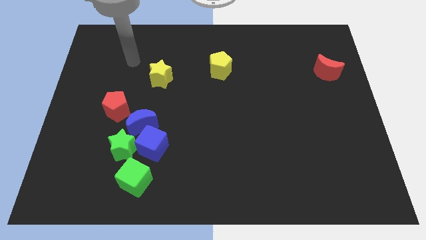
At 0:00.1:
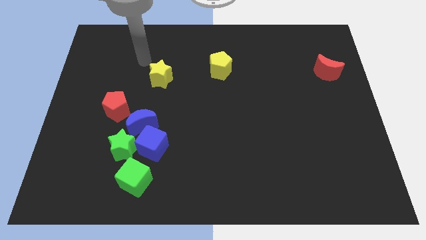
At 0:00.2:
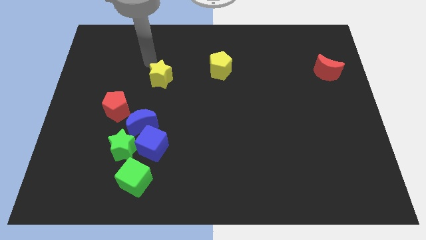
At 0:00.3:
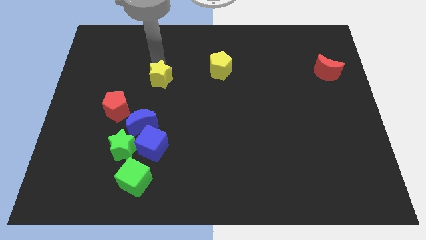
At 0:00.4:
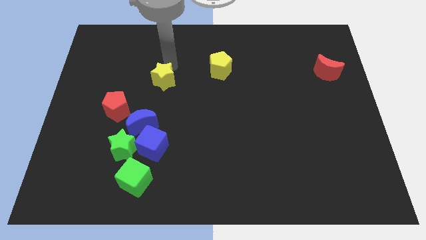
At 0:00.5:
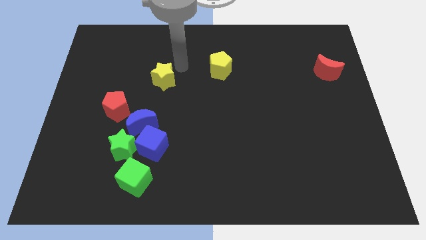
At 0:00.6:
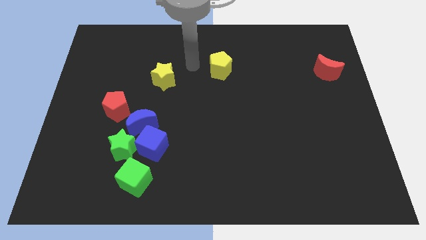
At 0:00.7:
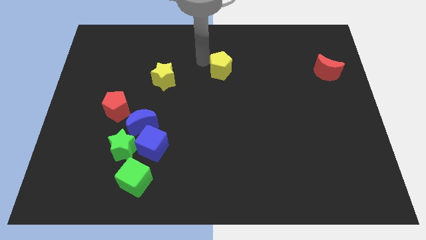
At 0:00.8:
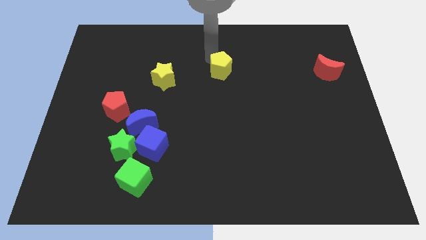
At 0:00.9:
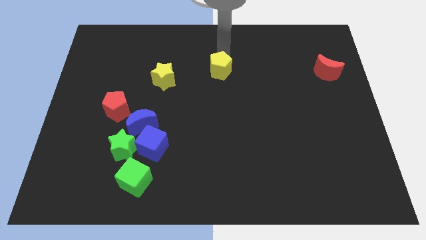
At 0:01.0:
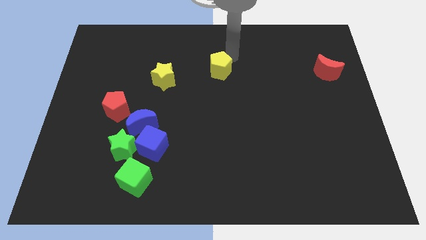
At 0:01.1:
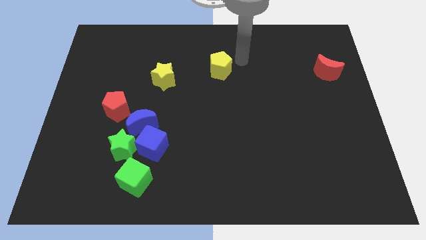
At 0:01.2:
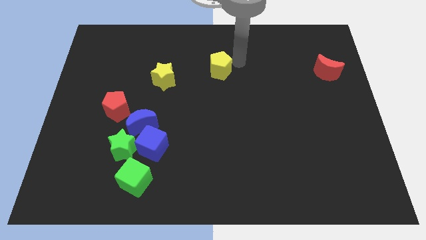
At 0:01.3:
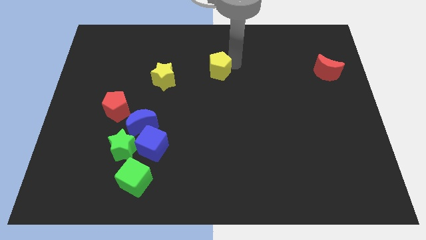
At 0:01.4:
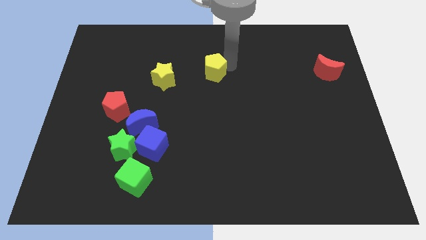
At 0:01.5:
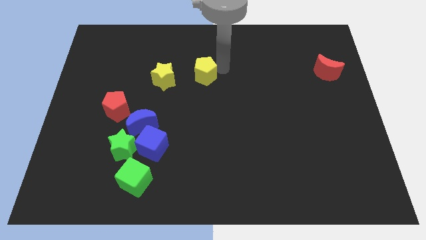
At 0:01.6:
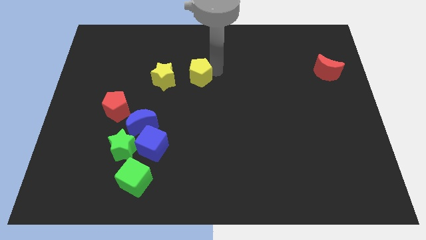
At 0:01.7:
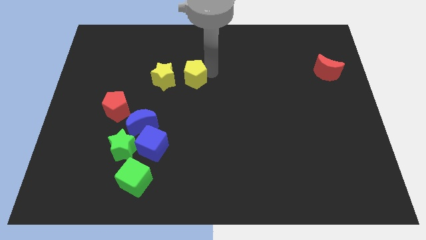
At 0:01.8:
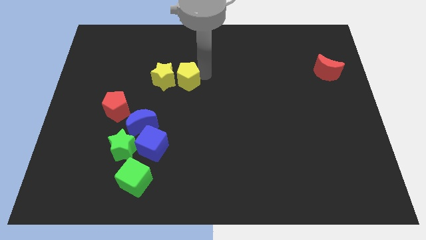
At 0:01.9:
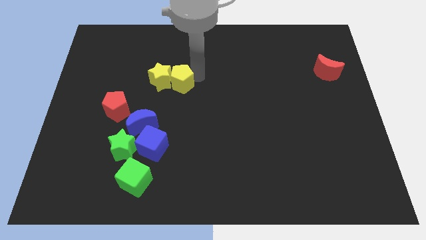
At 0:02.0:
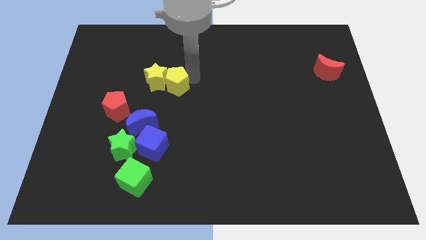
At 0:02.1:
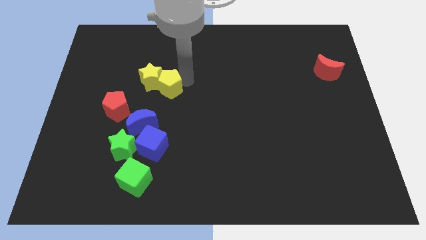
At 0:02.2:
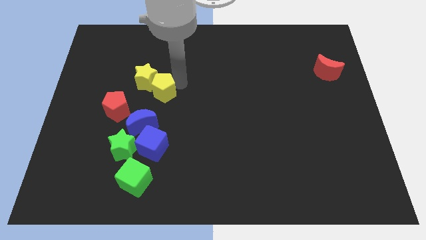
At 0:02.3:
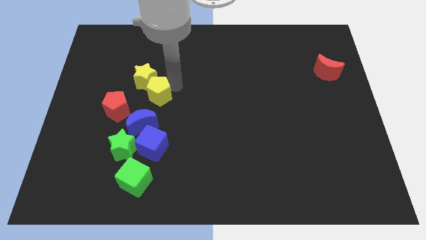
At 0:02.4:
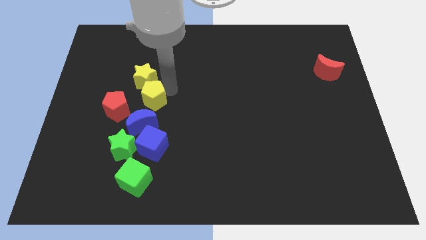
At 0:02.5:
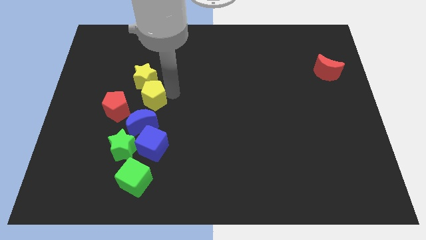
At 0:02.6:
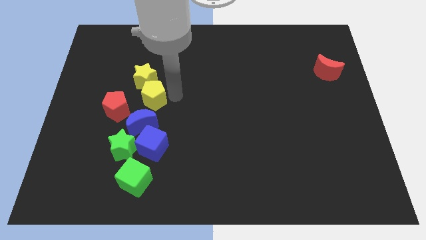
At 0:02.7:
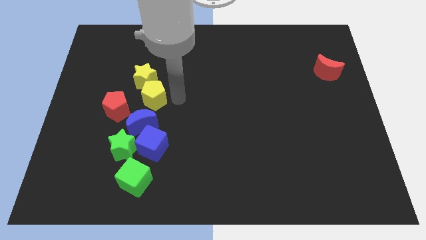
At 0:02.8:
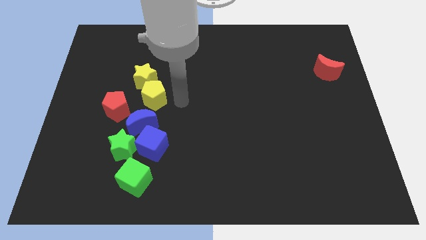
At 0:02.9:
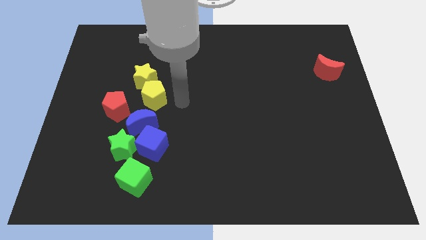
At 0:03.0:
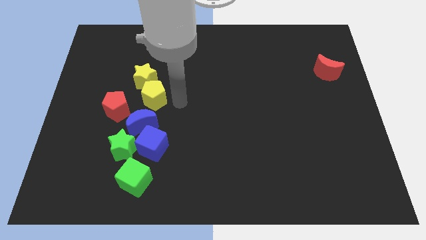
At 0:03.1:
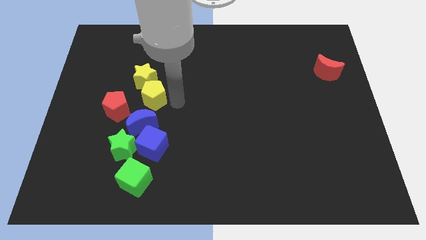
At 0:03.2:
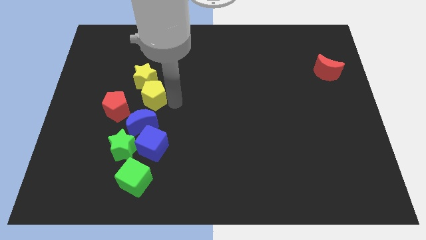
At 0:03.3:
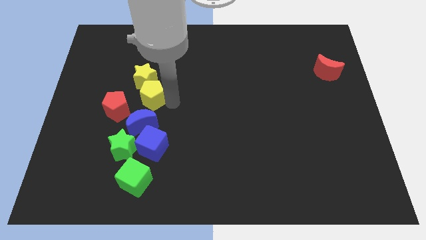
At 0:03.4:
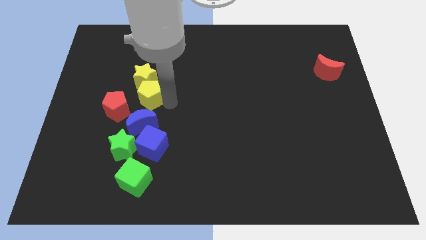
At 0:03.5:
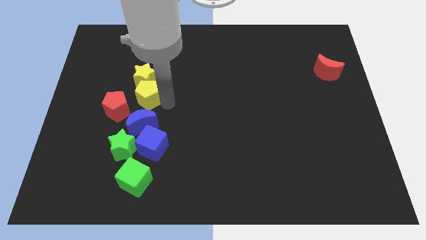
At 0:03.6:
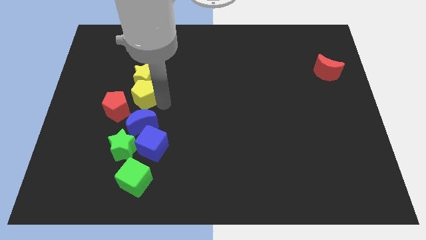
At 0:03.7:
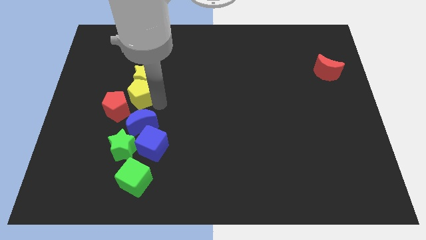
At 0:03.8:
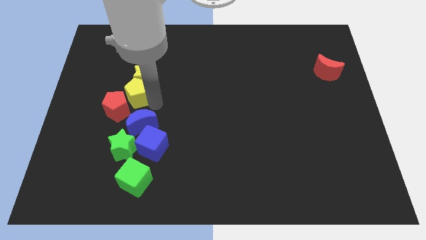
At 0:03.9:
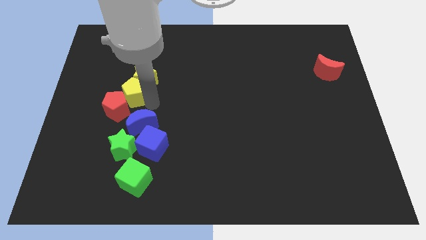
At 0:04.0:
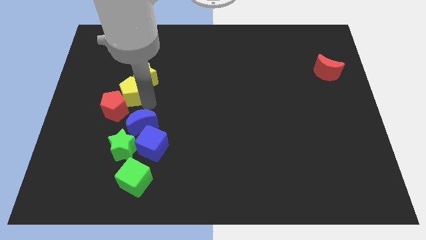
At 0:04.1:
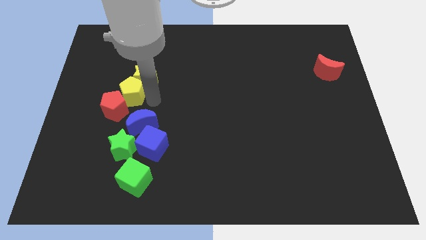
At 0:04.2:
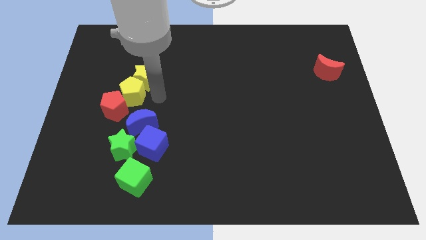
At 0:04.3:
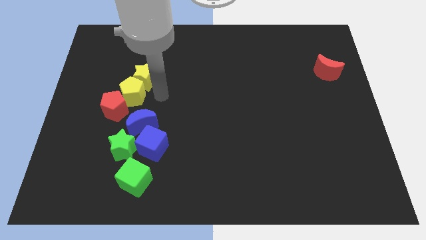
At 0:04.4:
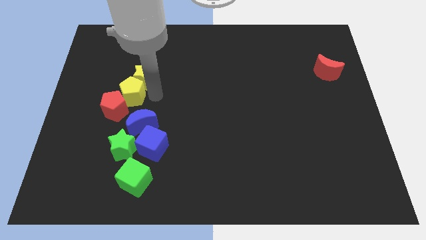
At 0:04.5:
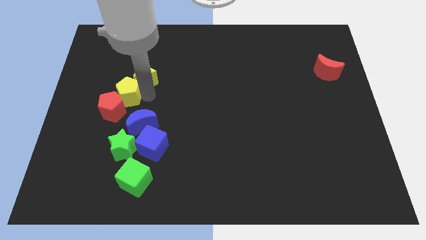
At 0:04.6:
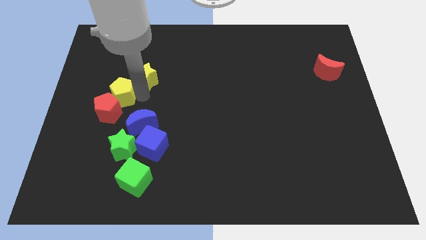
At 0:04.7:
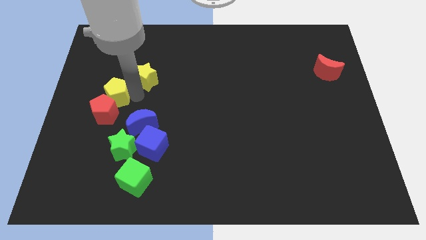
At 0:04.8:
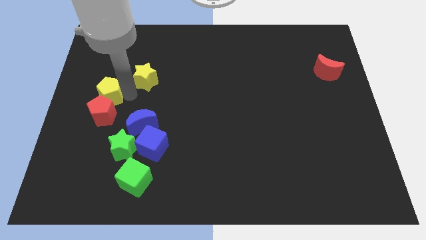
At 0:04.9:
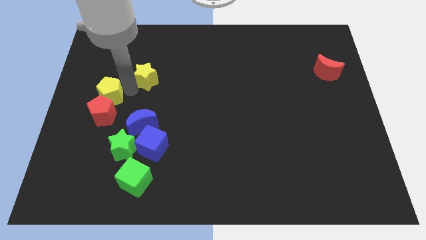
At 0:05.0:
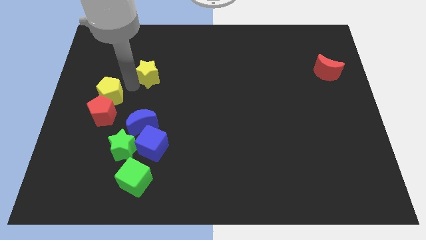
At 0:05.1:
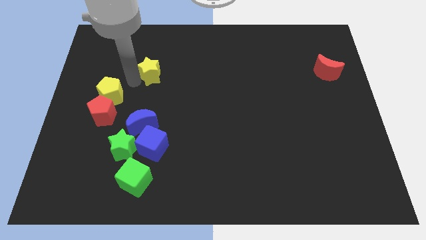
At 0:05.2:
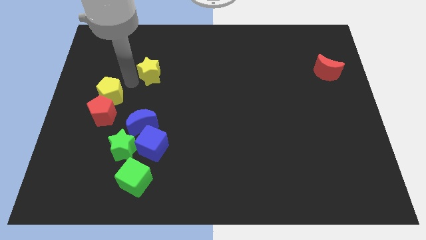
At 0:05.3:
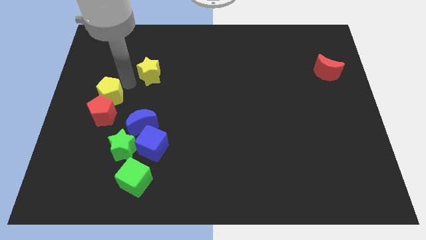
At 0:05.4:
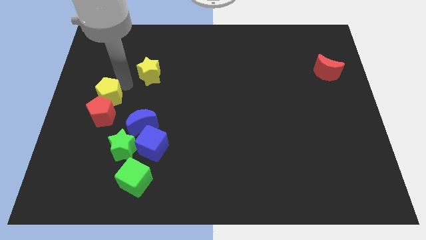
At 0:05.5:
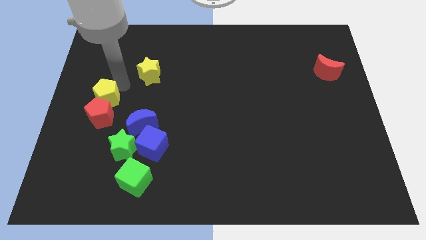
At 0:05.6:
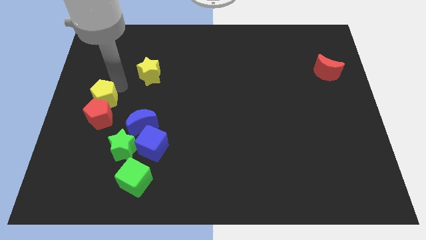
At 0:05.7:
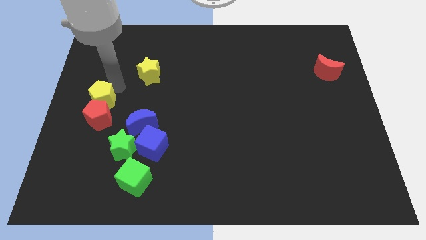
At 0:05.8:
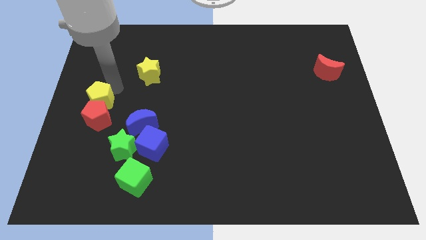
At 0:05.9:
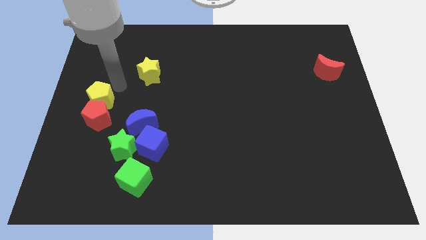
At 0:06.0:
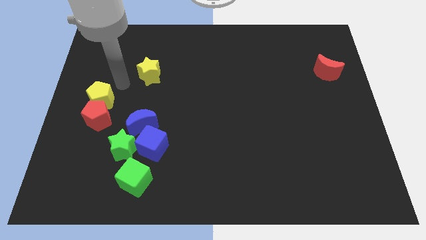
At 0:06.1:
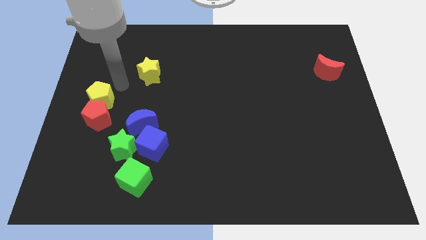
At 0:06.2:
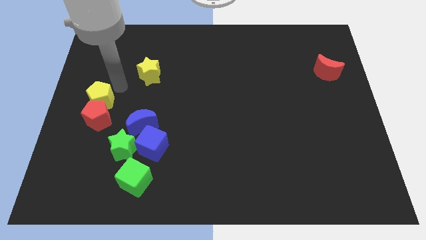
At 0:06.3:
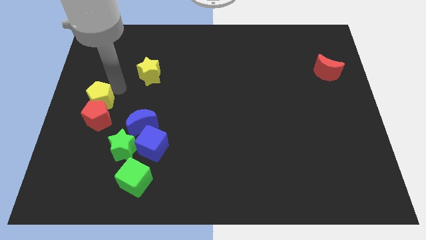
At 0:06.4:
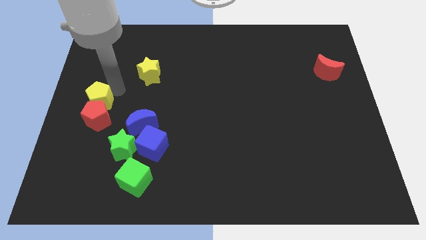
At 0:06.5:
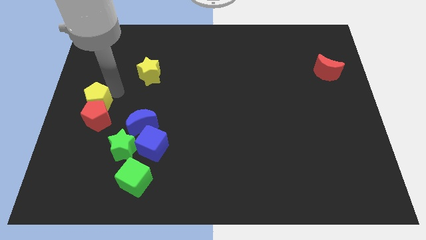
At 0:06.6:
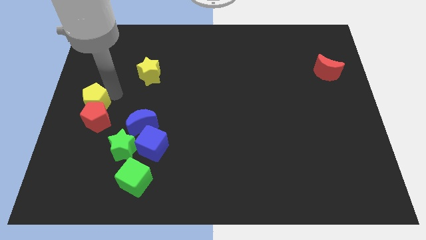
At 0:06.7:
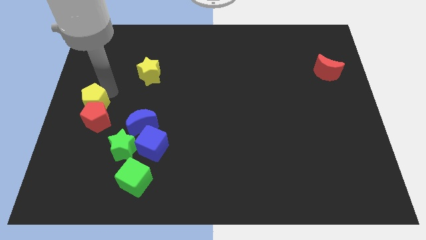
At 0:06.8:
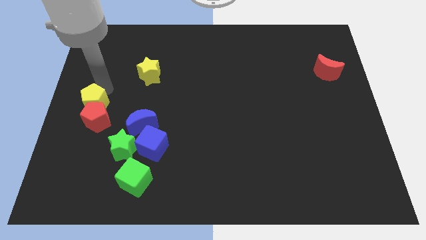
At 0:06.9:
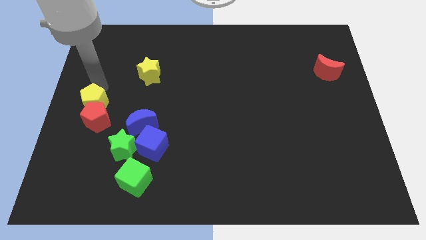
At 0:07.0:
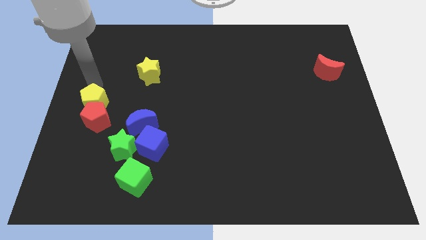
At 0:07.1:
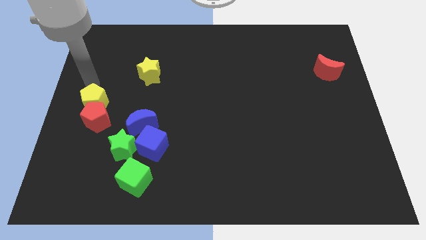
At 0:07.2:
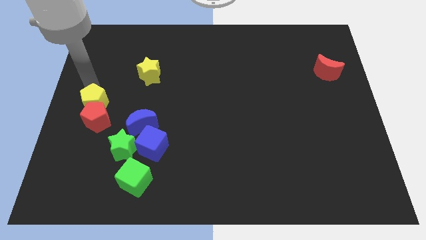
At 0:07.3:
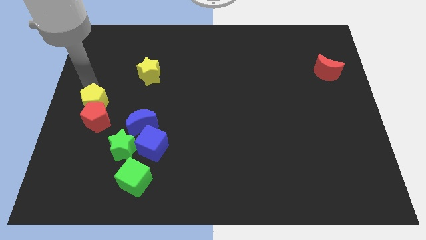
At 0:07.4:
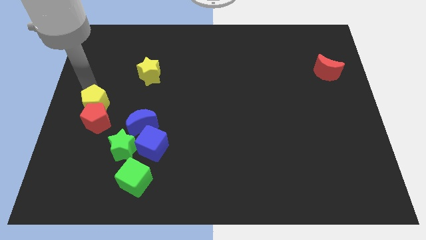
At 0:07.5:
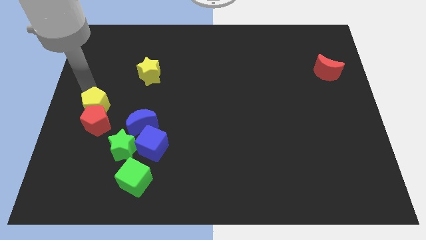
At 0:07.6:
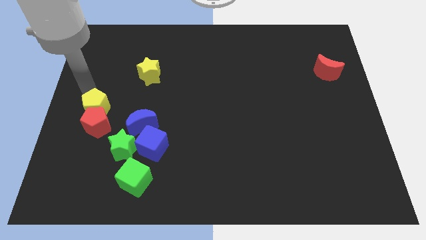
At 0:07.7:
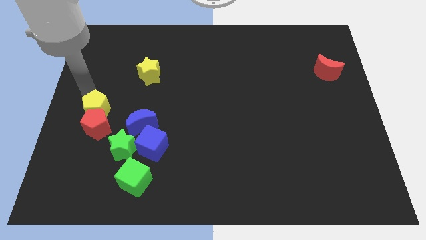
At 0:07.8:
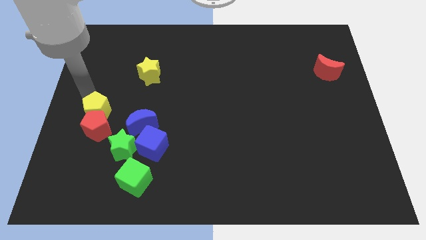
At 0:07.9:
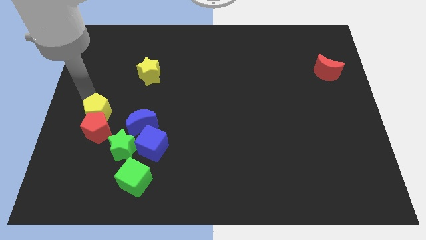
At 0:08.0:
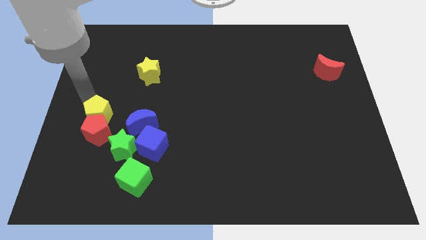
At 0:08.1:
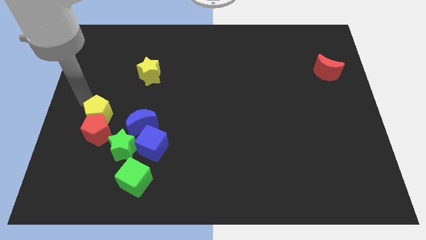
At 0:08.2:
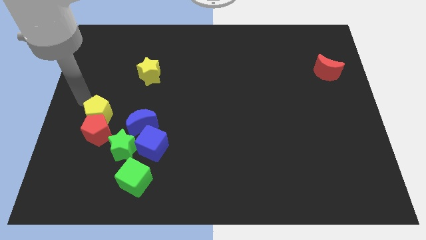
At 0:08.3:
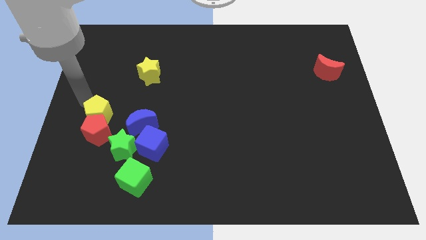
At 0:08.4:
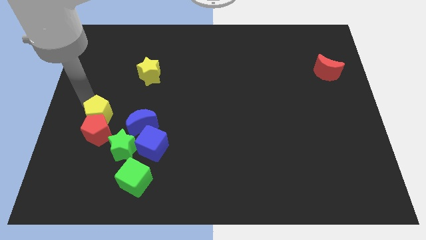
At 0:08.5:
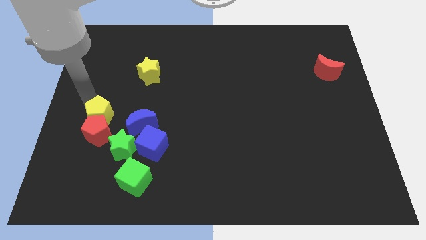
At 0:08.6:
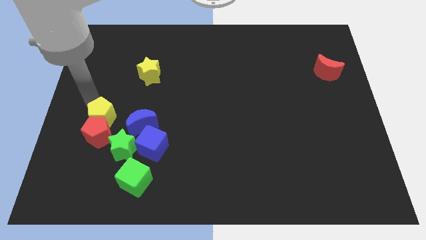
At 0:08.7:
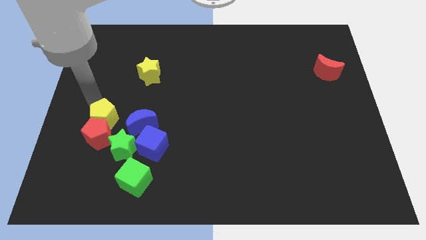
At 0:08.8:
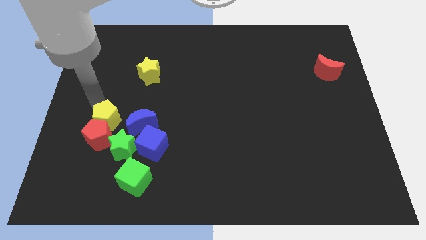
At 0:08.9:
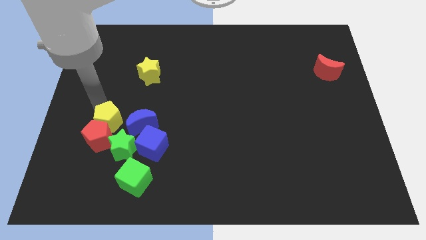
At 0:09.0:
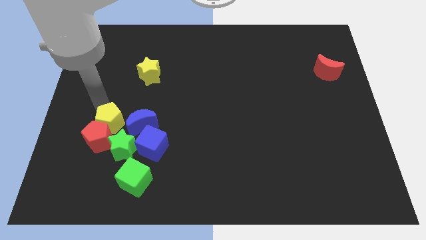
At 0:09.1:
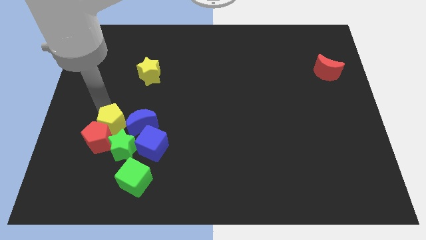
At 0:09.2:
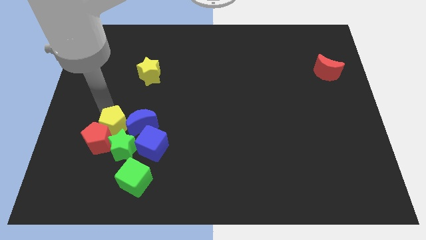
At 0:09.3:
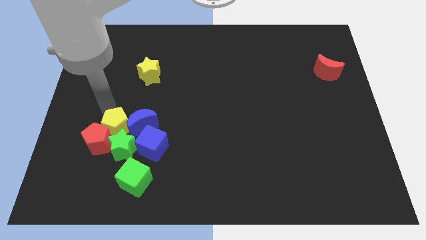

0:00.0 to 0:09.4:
push the yellow pentagon close to the green star
